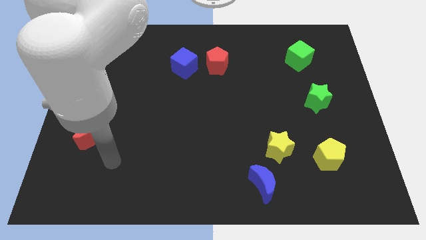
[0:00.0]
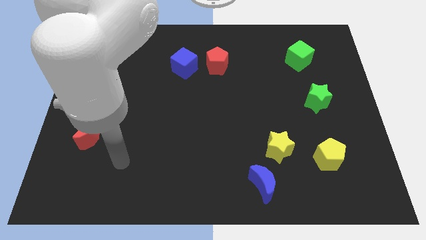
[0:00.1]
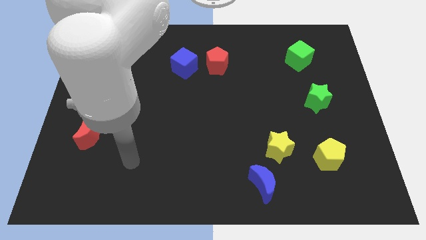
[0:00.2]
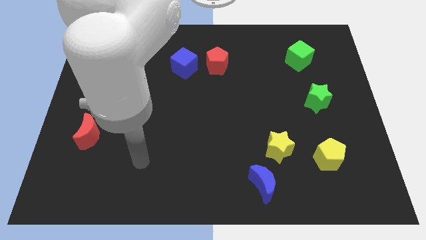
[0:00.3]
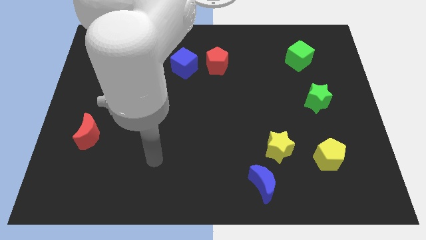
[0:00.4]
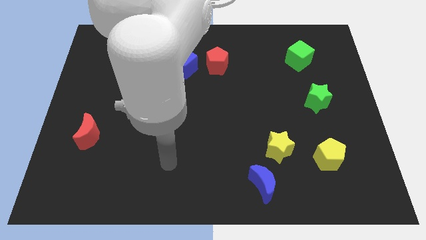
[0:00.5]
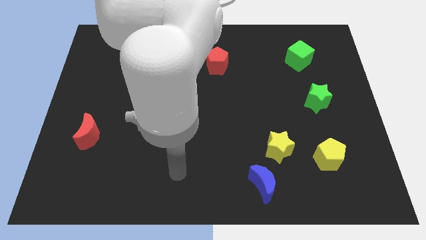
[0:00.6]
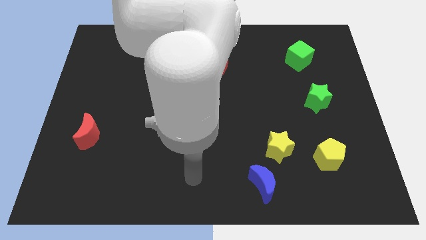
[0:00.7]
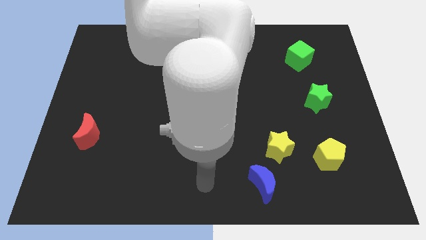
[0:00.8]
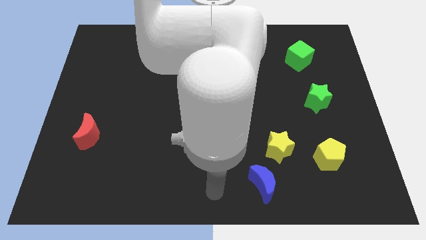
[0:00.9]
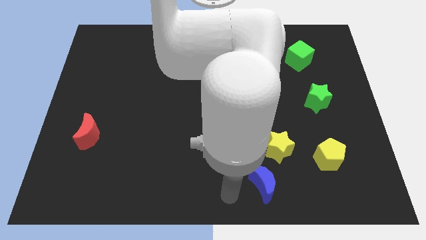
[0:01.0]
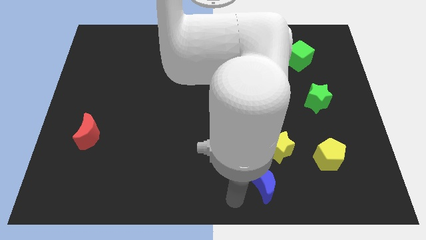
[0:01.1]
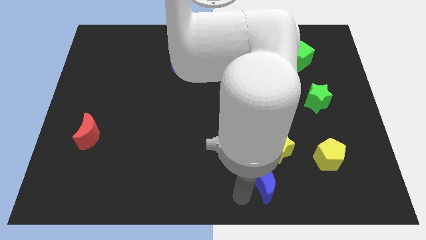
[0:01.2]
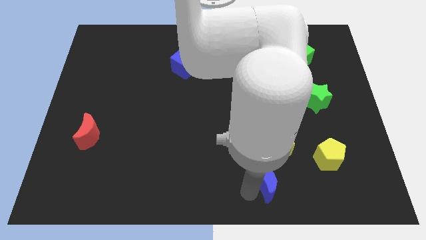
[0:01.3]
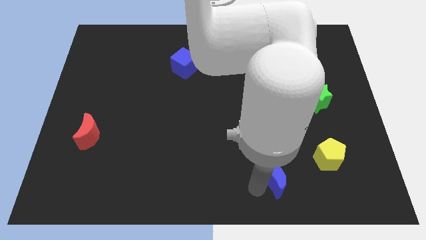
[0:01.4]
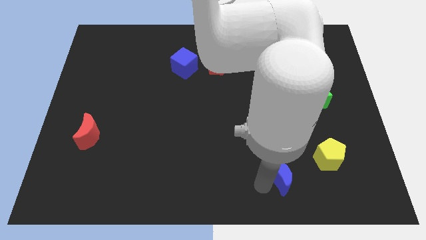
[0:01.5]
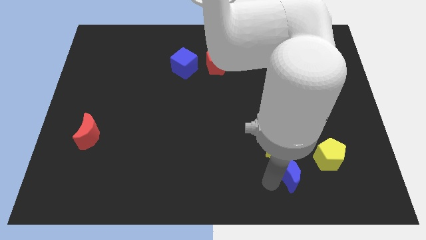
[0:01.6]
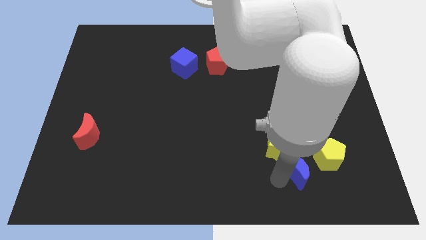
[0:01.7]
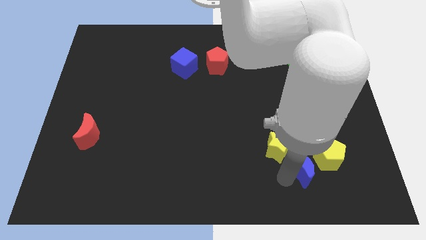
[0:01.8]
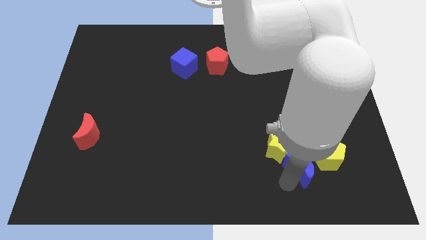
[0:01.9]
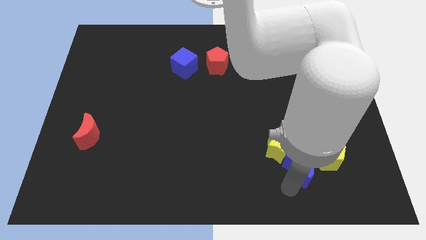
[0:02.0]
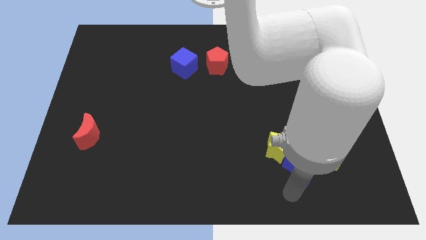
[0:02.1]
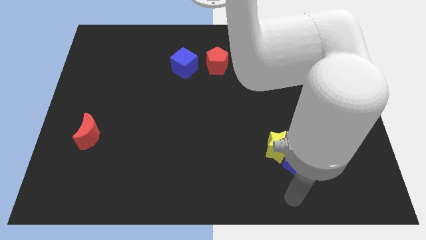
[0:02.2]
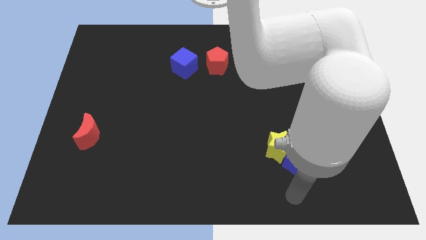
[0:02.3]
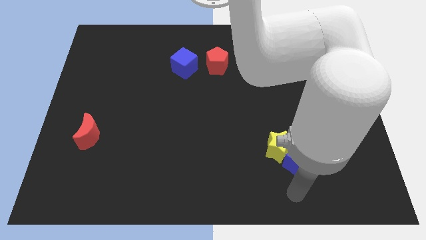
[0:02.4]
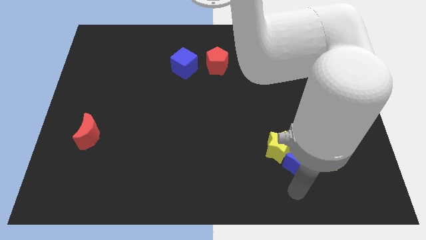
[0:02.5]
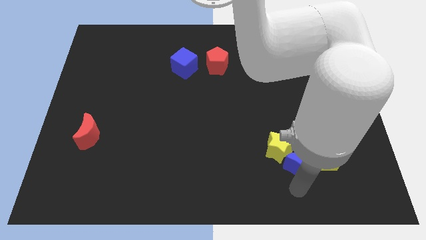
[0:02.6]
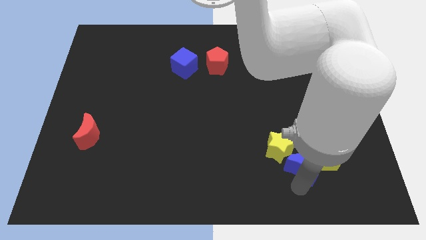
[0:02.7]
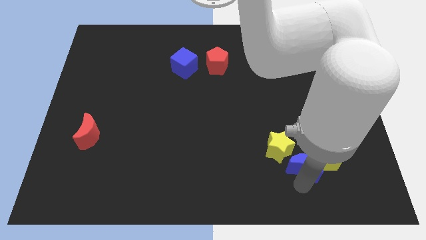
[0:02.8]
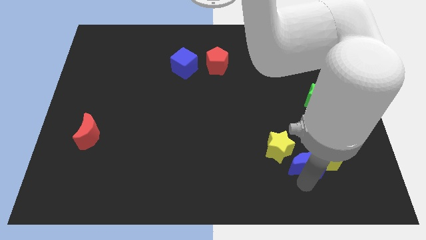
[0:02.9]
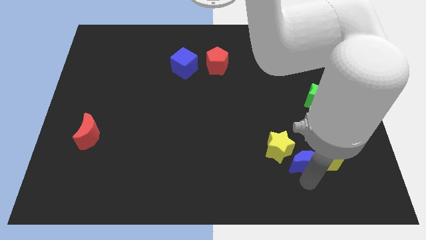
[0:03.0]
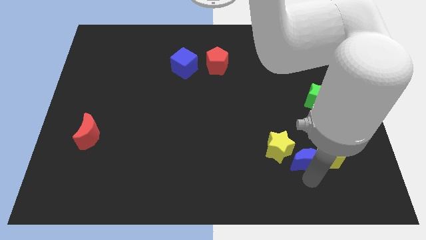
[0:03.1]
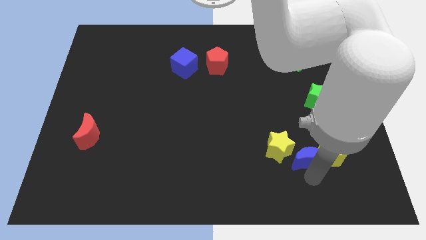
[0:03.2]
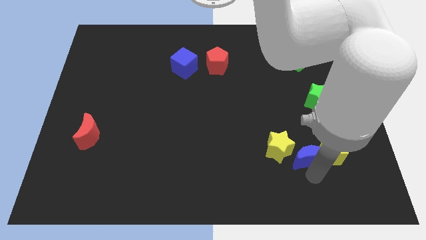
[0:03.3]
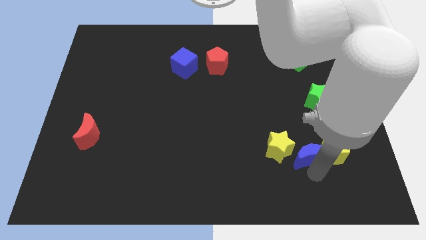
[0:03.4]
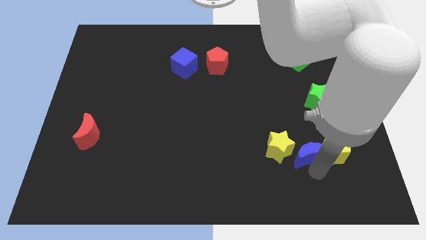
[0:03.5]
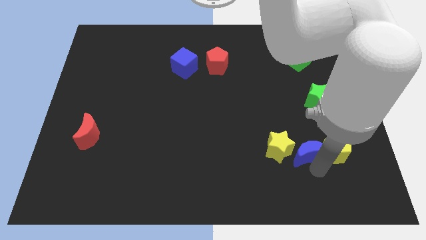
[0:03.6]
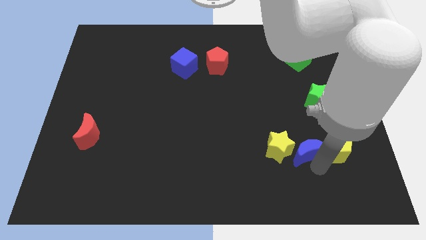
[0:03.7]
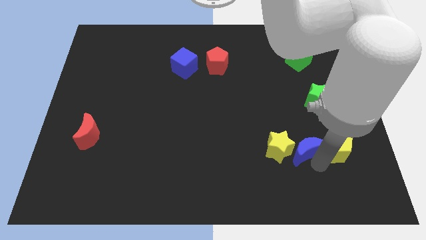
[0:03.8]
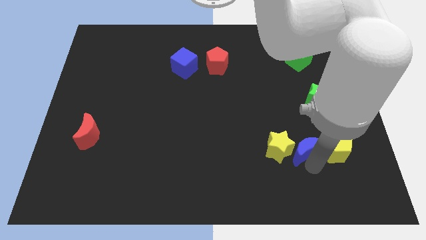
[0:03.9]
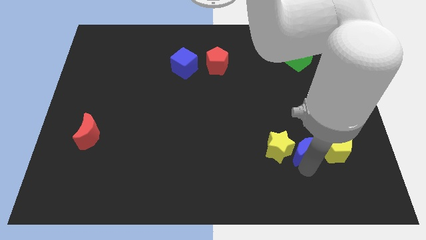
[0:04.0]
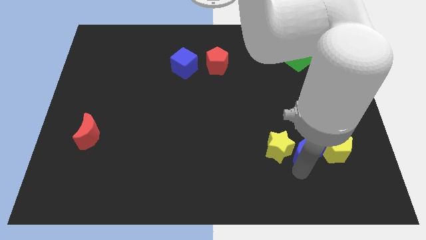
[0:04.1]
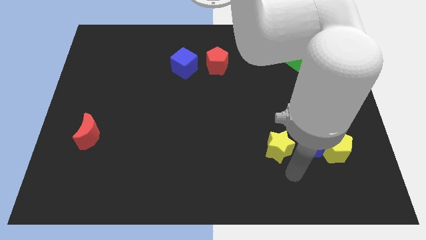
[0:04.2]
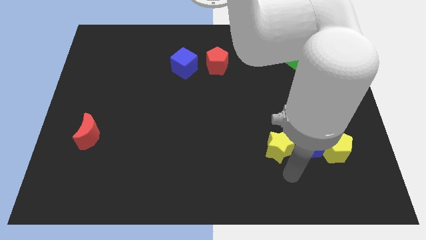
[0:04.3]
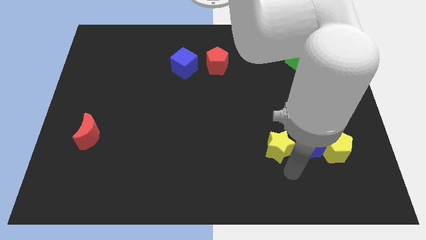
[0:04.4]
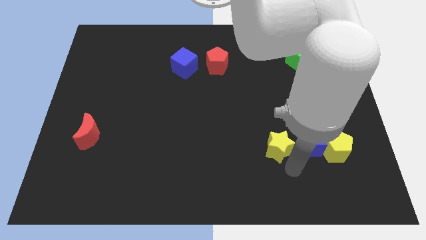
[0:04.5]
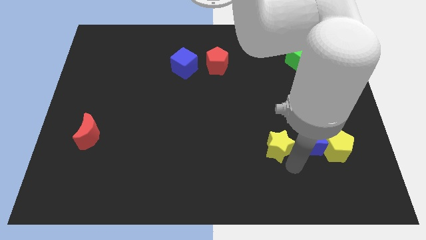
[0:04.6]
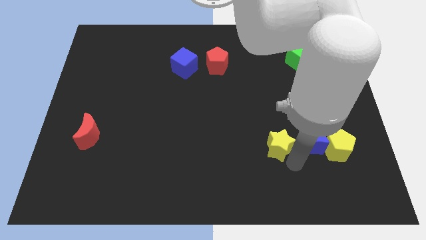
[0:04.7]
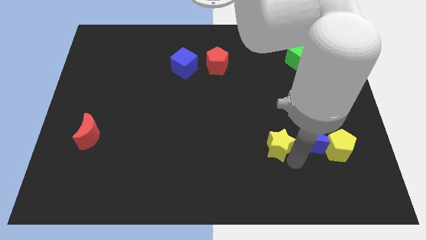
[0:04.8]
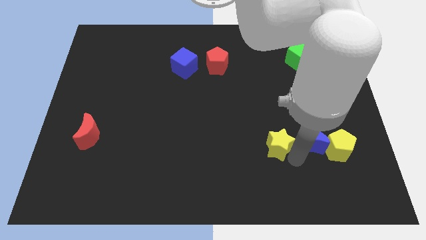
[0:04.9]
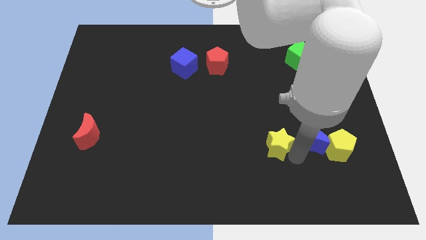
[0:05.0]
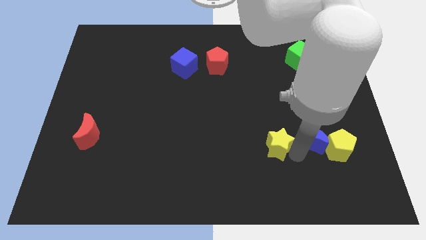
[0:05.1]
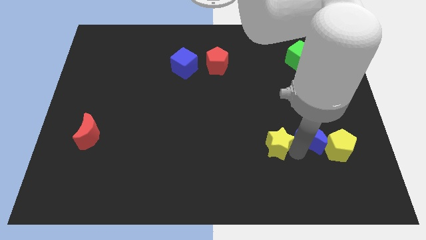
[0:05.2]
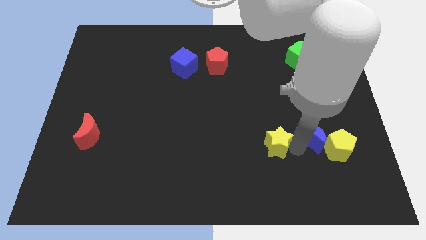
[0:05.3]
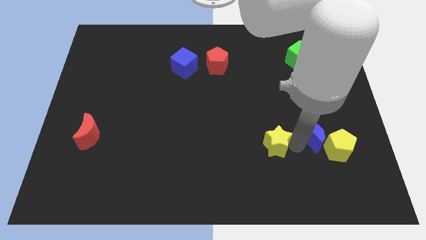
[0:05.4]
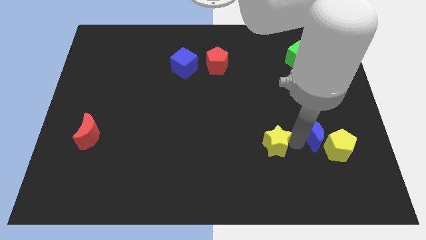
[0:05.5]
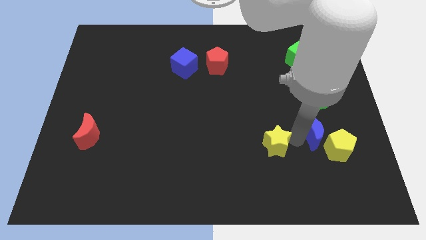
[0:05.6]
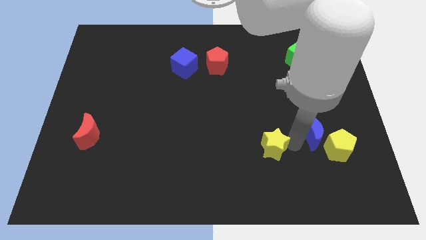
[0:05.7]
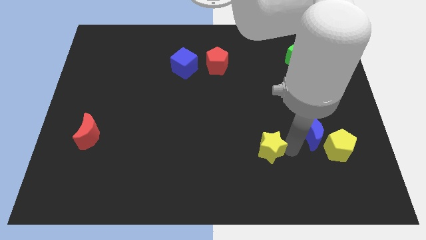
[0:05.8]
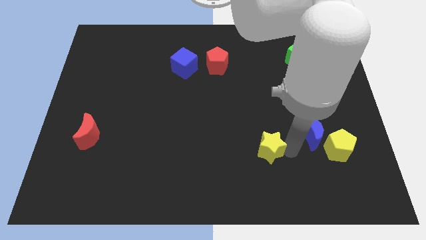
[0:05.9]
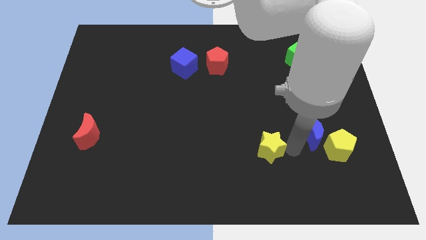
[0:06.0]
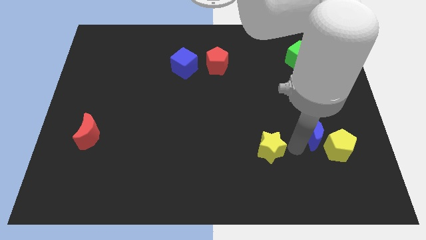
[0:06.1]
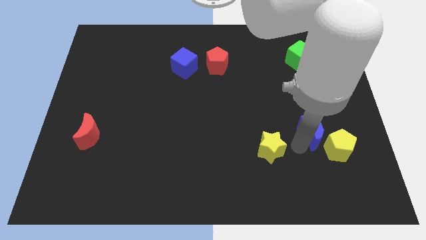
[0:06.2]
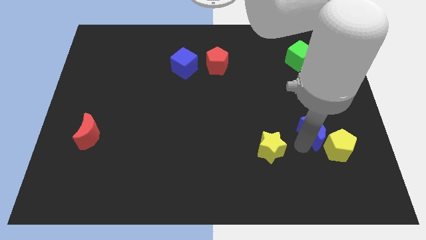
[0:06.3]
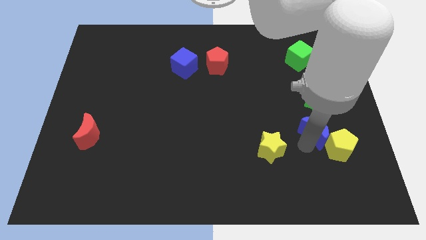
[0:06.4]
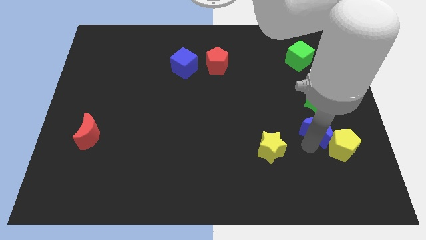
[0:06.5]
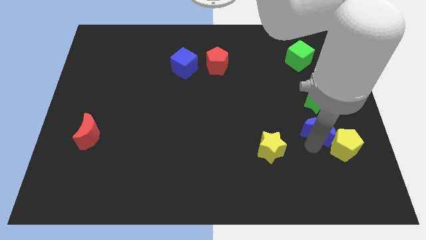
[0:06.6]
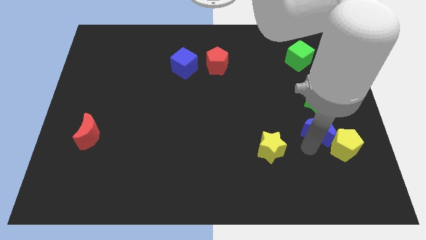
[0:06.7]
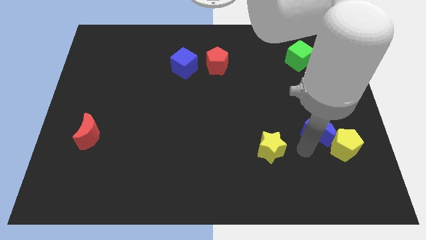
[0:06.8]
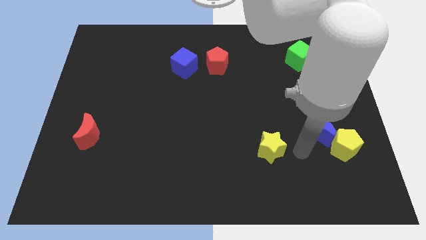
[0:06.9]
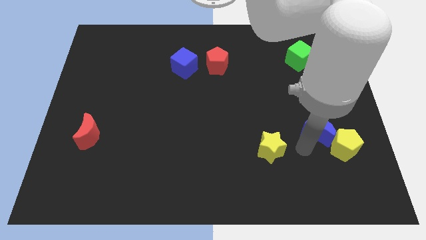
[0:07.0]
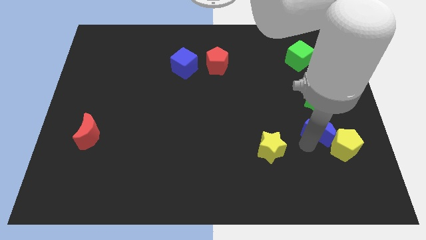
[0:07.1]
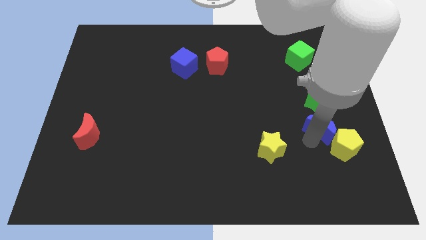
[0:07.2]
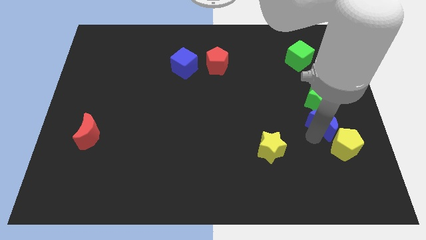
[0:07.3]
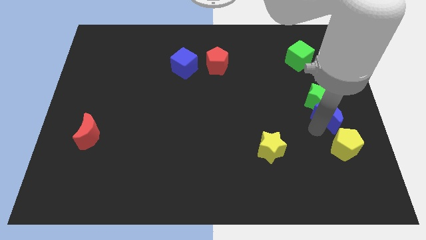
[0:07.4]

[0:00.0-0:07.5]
push the blue moon to the center right
